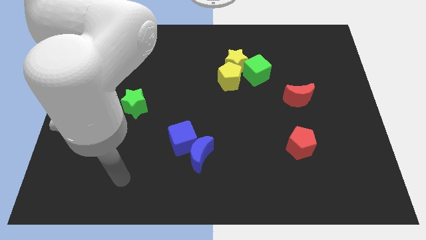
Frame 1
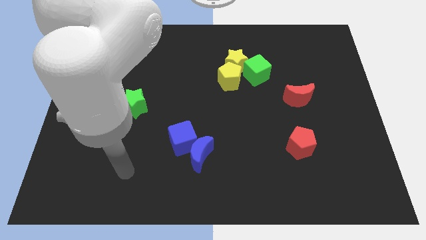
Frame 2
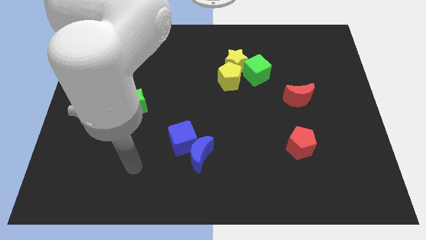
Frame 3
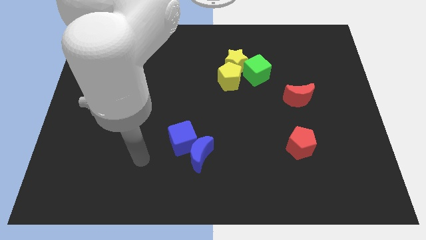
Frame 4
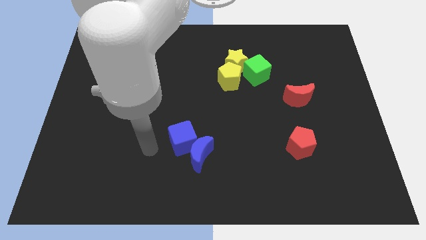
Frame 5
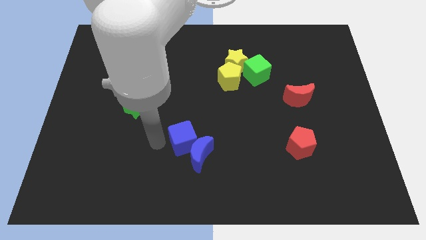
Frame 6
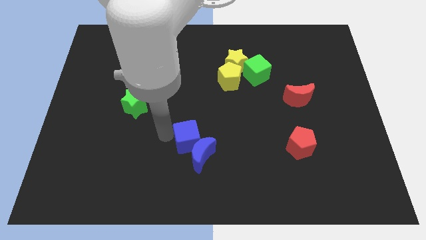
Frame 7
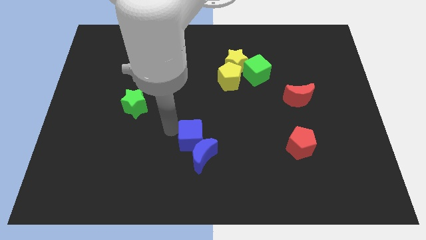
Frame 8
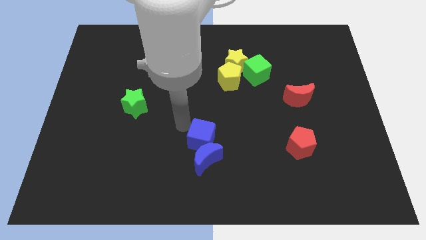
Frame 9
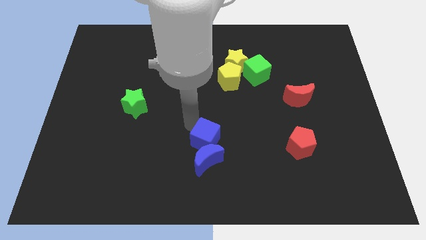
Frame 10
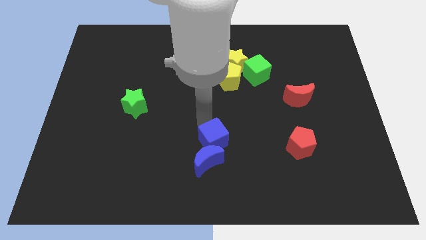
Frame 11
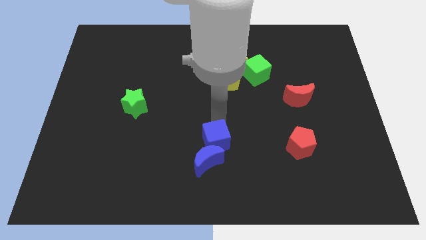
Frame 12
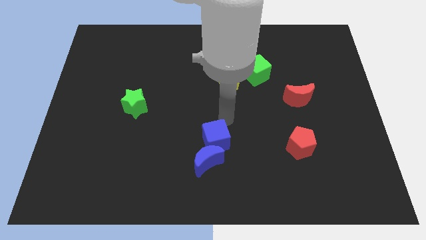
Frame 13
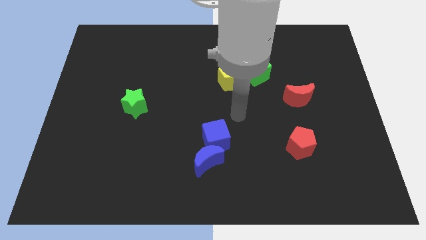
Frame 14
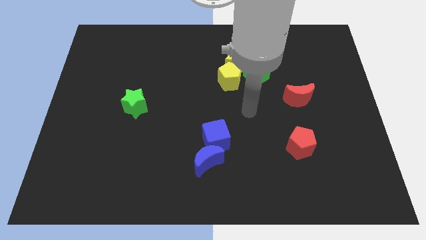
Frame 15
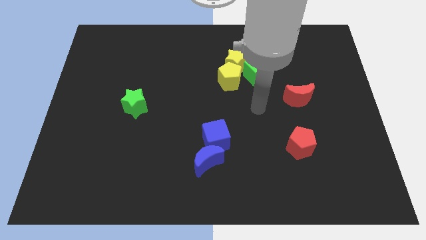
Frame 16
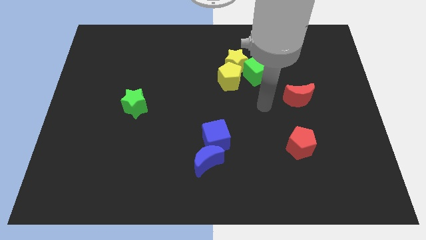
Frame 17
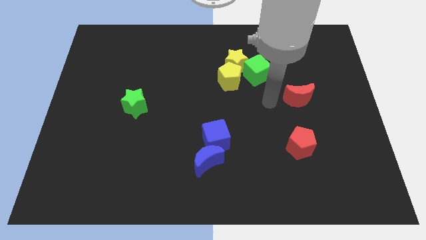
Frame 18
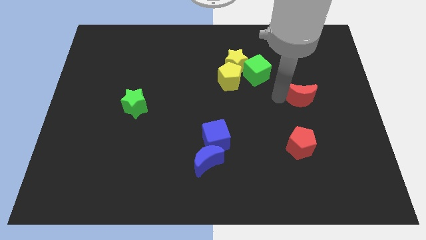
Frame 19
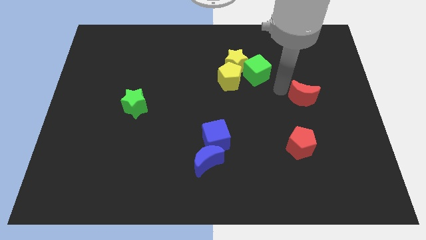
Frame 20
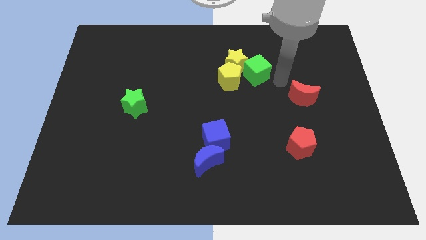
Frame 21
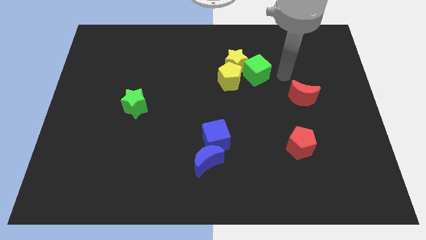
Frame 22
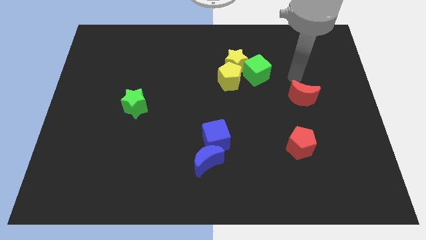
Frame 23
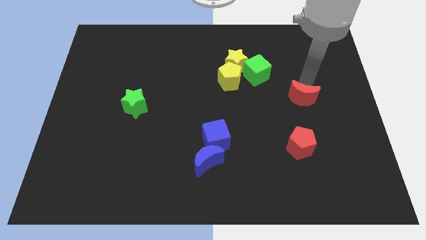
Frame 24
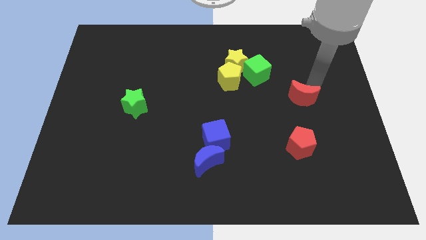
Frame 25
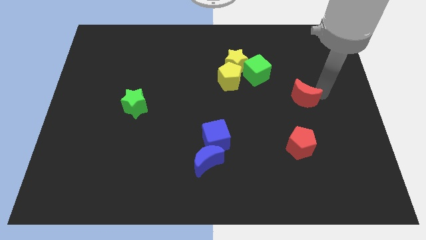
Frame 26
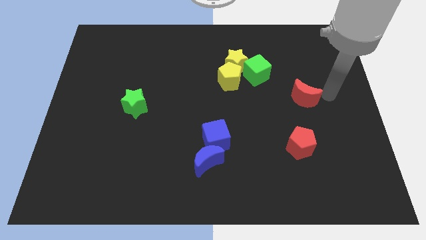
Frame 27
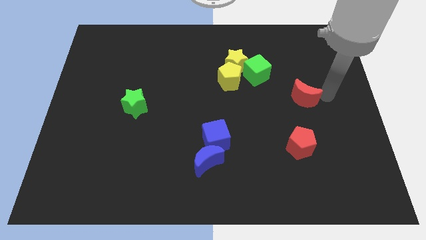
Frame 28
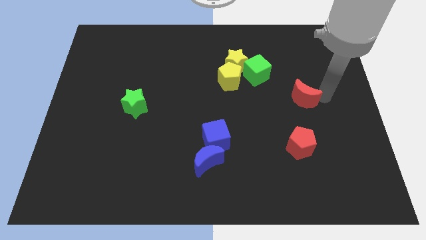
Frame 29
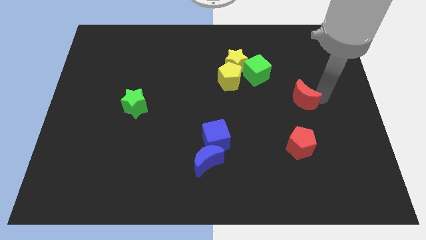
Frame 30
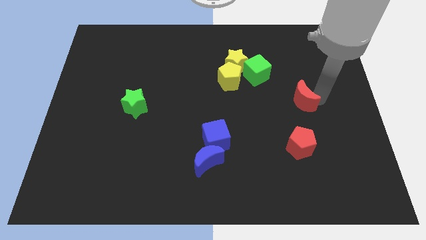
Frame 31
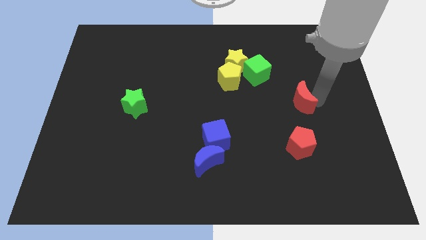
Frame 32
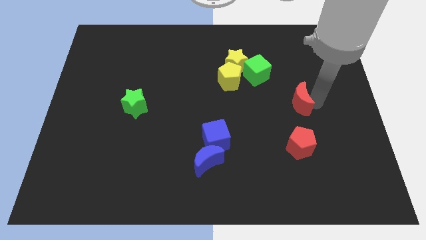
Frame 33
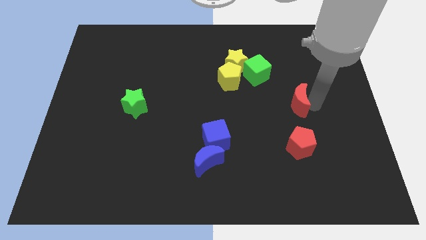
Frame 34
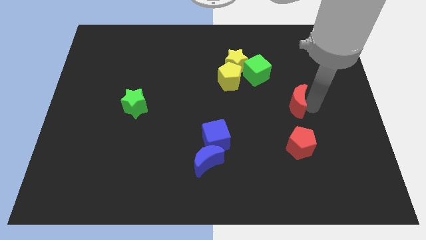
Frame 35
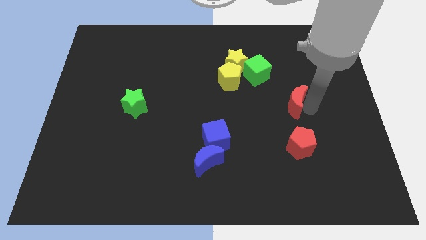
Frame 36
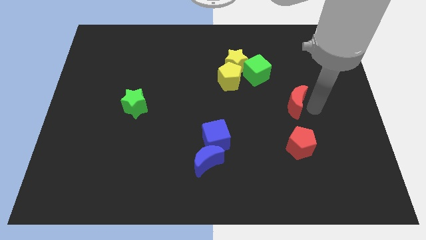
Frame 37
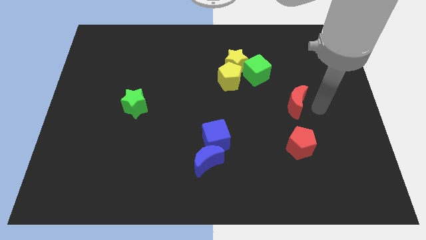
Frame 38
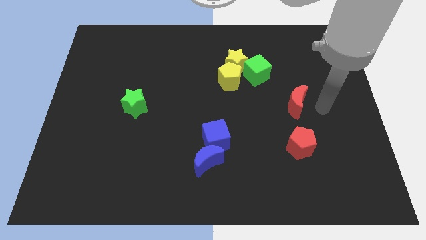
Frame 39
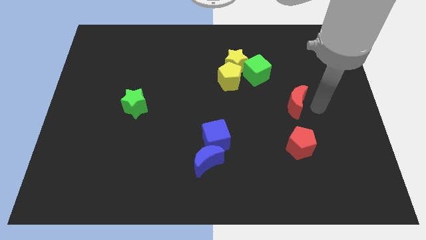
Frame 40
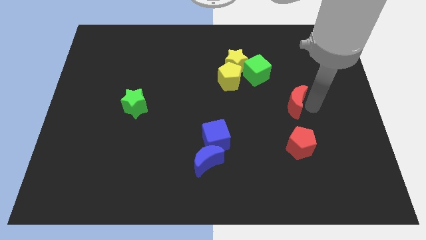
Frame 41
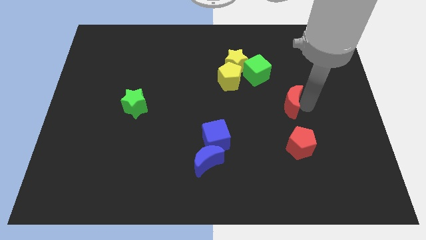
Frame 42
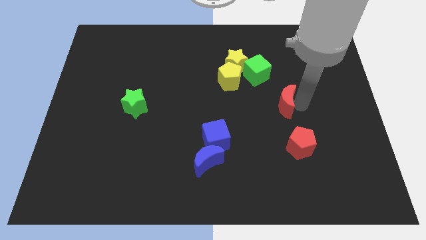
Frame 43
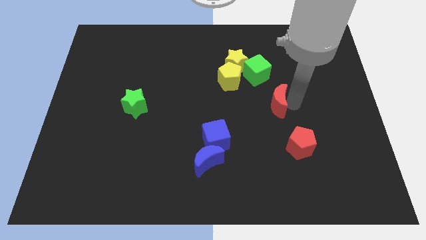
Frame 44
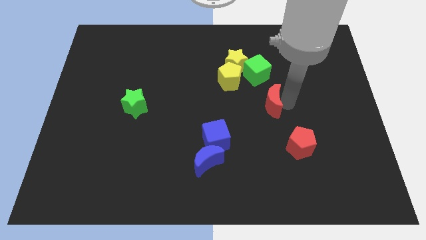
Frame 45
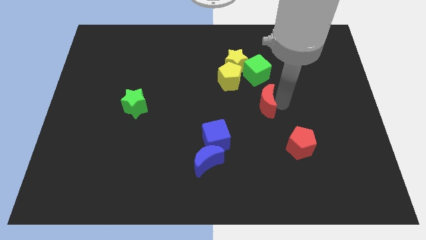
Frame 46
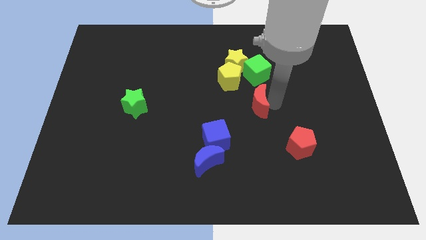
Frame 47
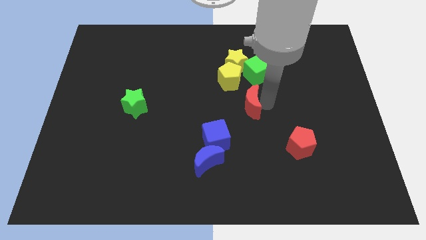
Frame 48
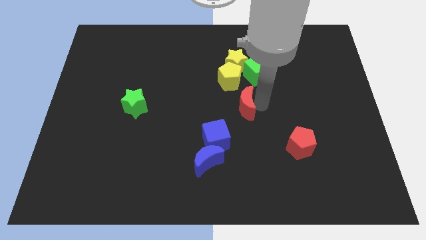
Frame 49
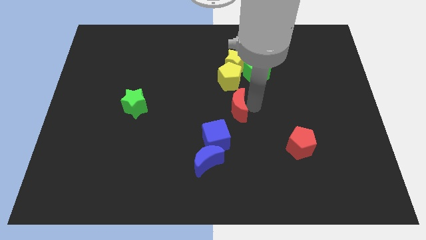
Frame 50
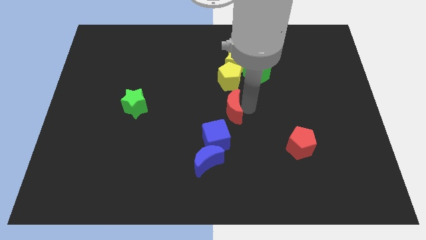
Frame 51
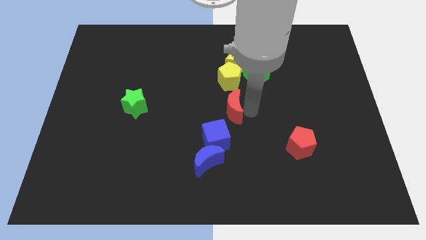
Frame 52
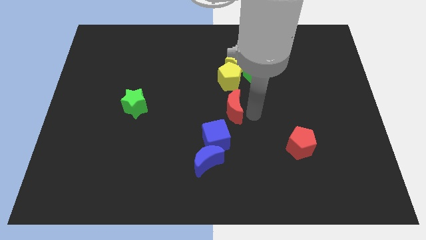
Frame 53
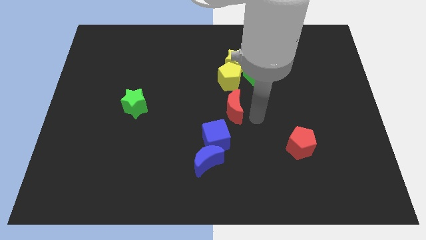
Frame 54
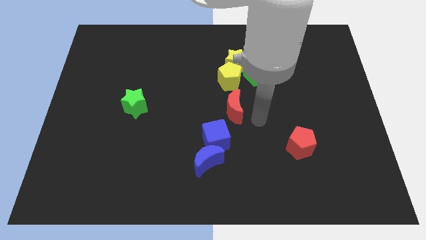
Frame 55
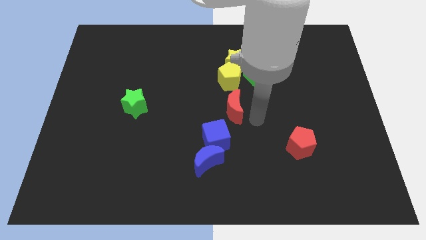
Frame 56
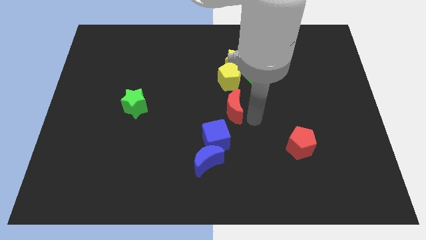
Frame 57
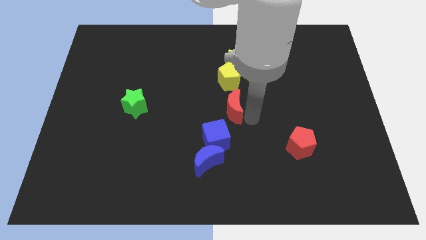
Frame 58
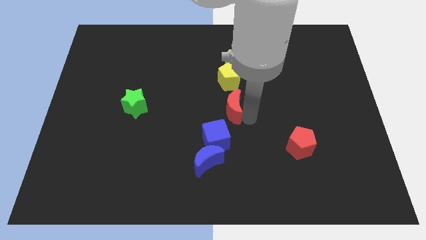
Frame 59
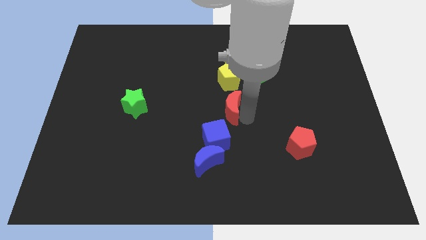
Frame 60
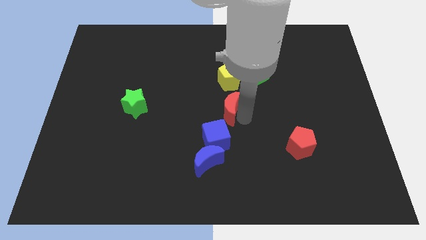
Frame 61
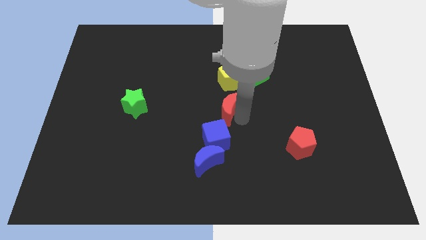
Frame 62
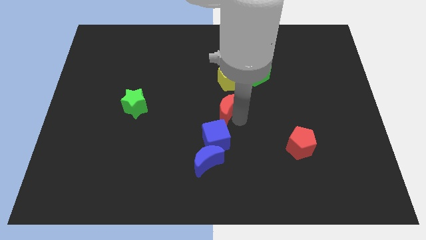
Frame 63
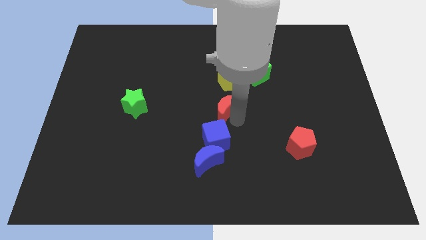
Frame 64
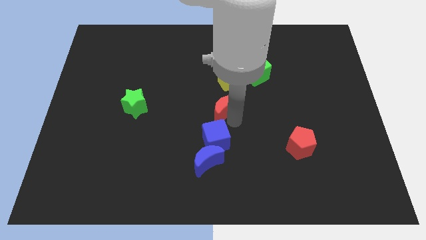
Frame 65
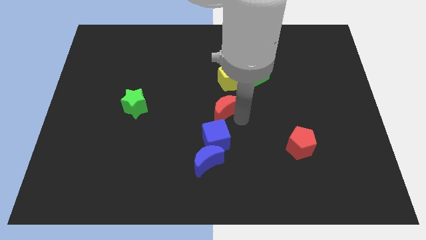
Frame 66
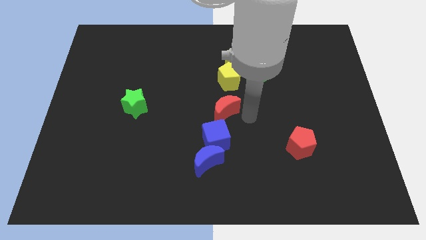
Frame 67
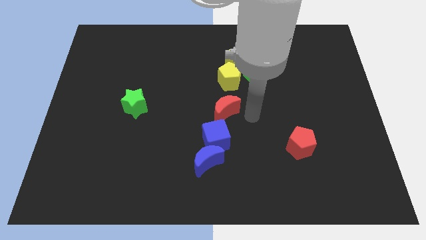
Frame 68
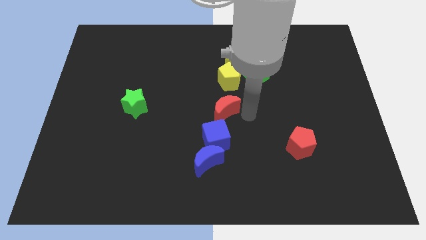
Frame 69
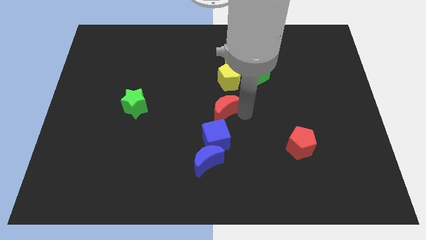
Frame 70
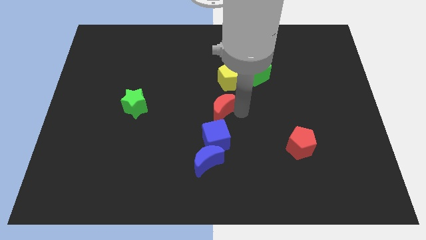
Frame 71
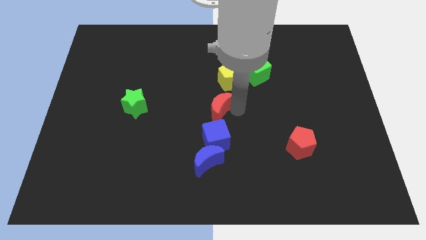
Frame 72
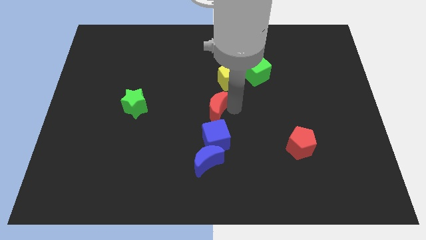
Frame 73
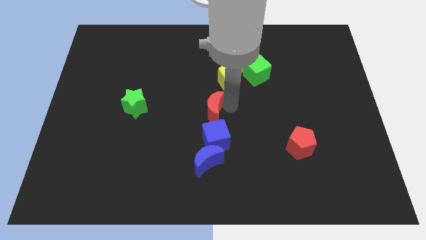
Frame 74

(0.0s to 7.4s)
slide the red moon to the left

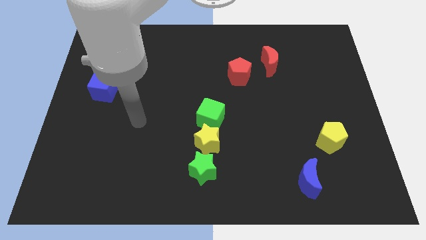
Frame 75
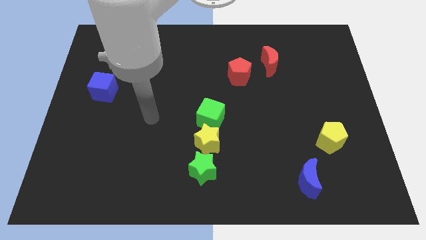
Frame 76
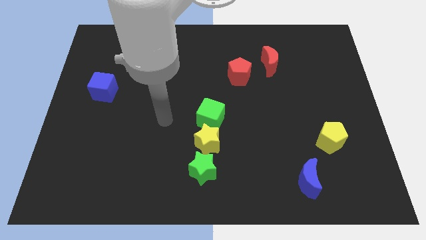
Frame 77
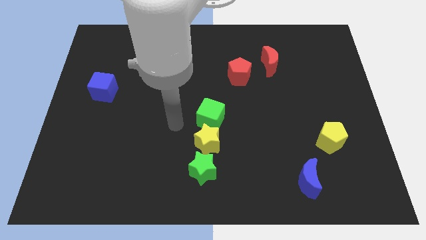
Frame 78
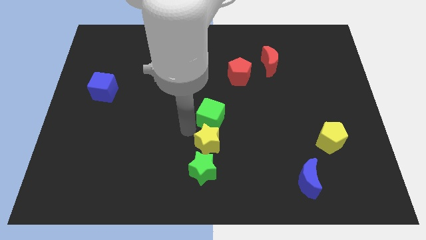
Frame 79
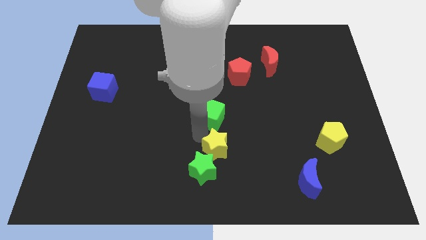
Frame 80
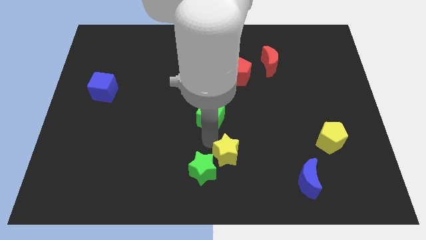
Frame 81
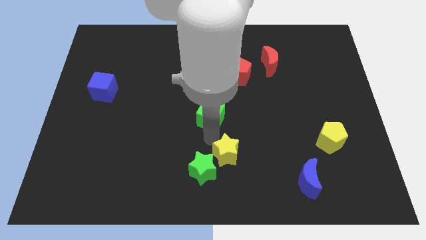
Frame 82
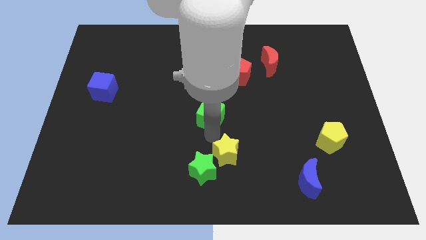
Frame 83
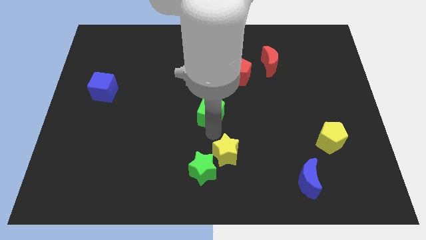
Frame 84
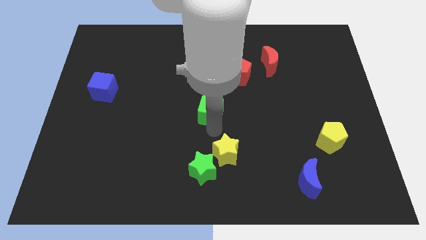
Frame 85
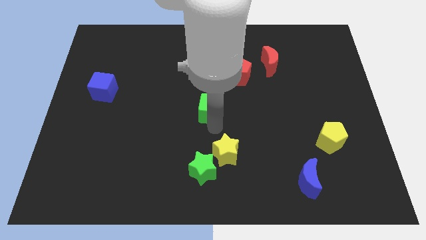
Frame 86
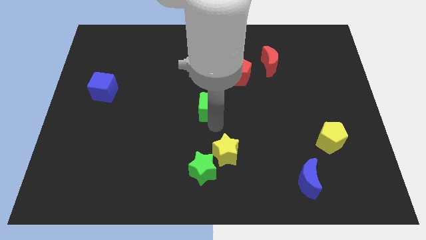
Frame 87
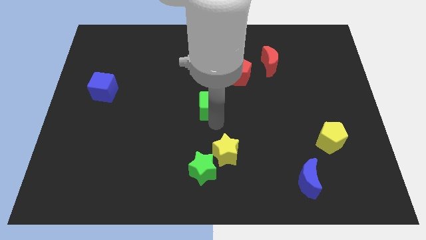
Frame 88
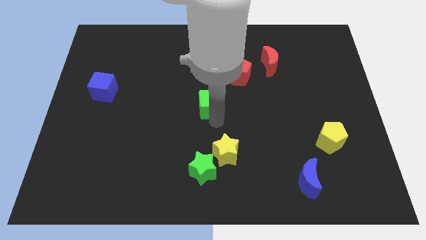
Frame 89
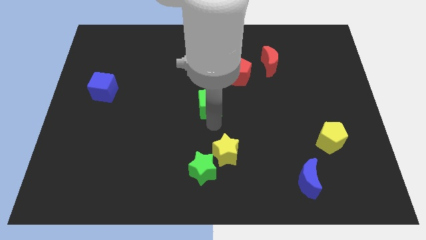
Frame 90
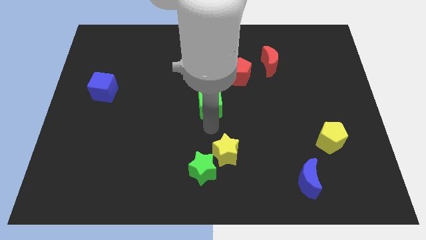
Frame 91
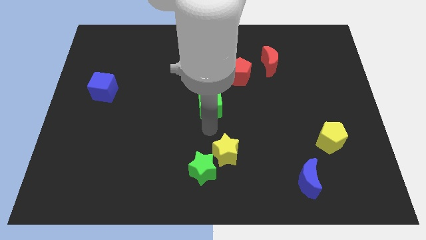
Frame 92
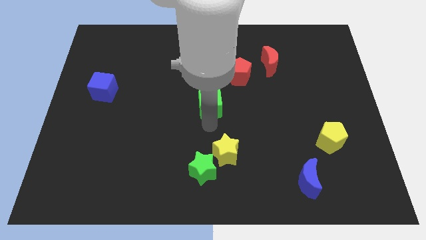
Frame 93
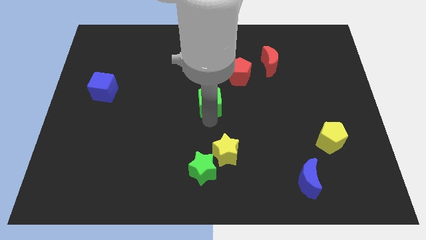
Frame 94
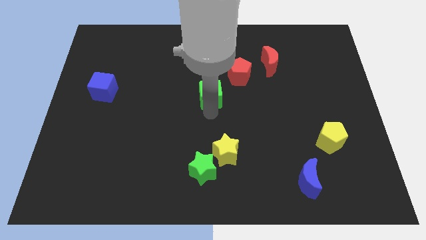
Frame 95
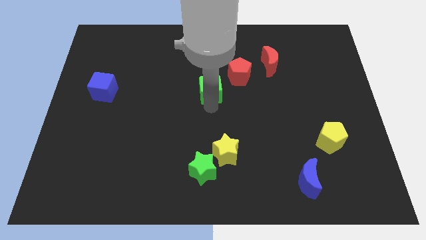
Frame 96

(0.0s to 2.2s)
push the green cube a little upwards
